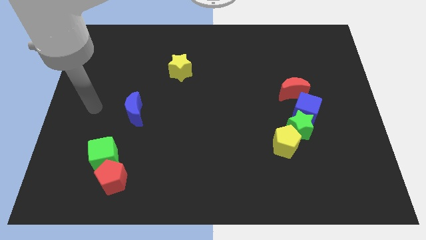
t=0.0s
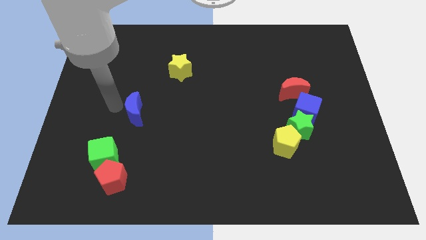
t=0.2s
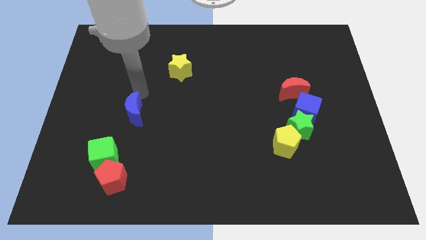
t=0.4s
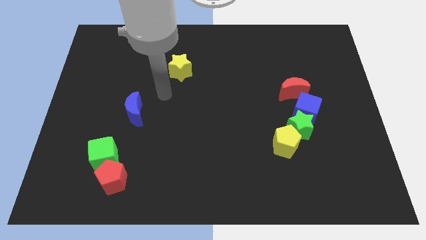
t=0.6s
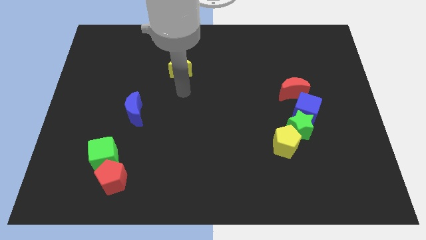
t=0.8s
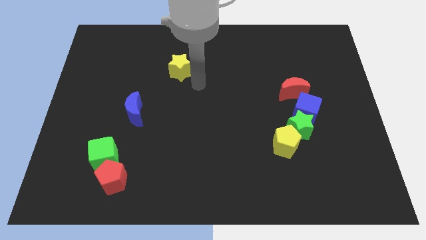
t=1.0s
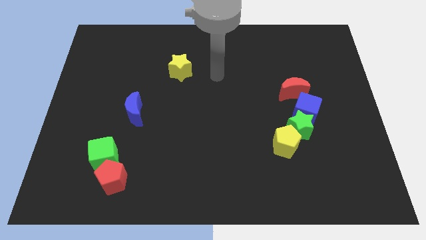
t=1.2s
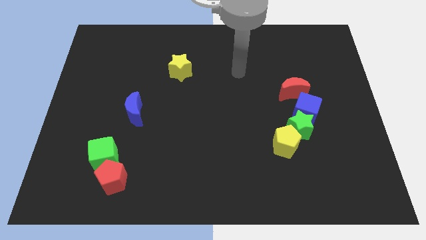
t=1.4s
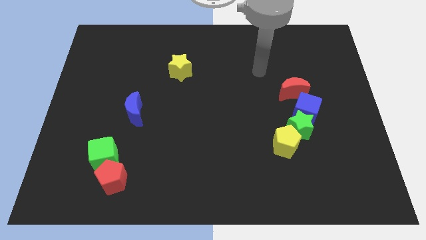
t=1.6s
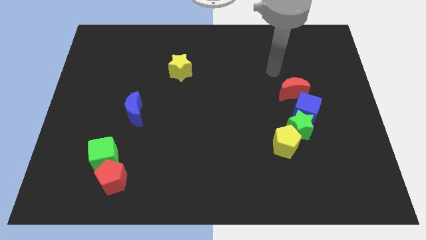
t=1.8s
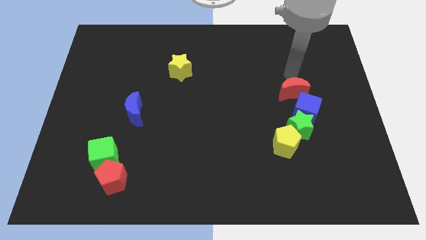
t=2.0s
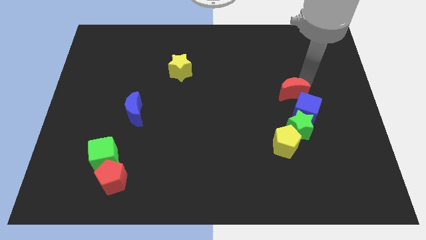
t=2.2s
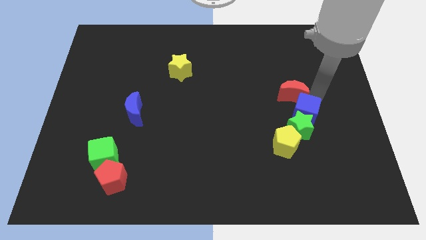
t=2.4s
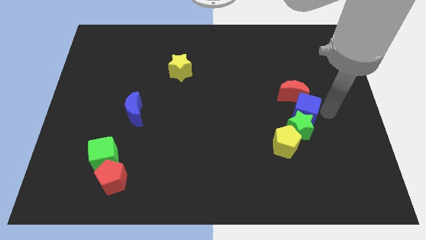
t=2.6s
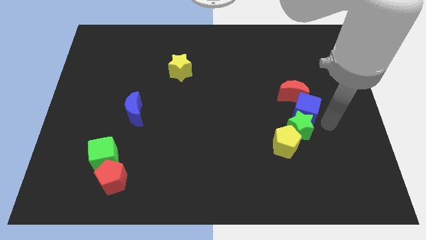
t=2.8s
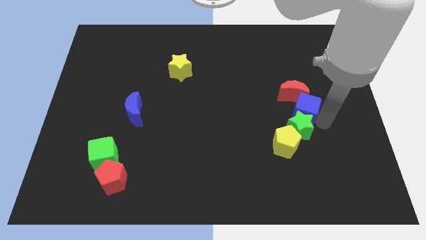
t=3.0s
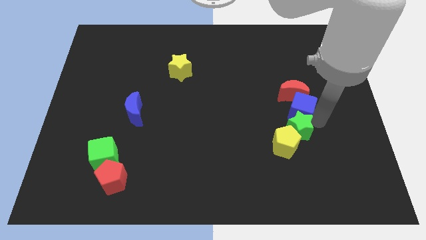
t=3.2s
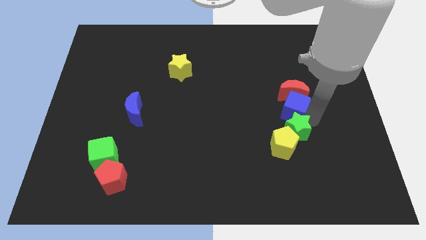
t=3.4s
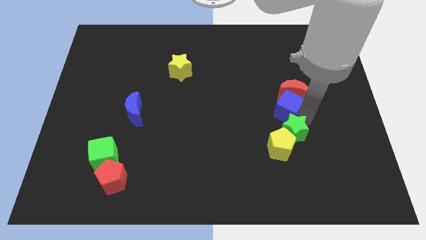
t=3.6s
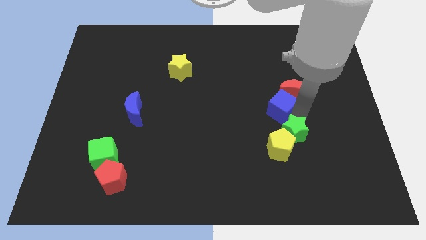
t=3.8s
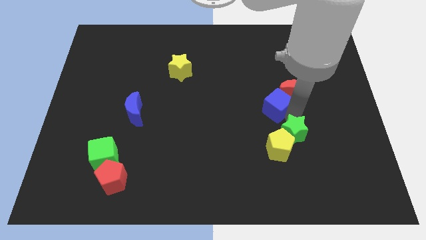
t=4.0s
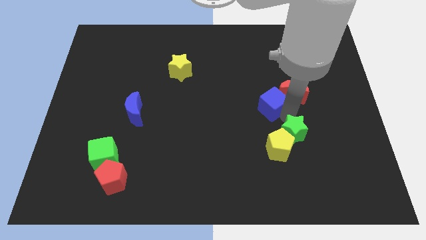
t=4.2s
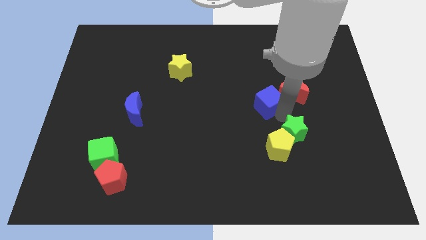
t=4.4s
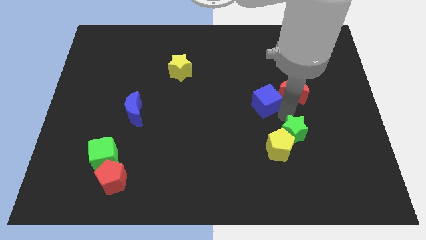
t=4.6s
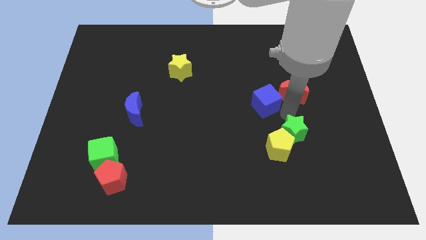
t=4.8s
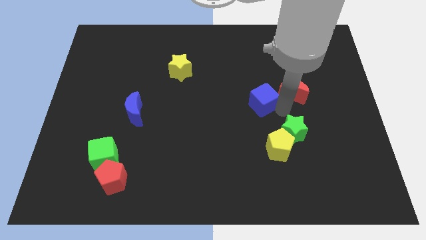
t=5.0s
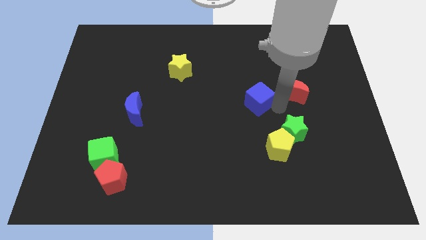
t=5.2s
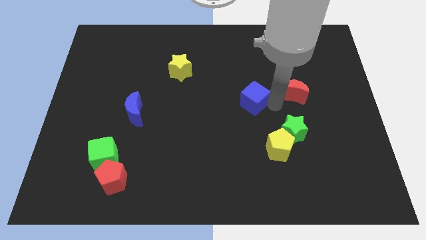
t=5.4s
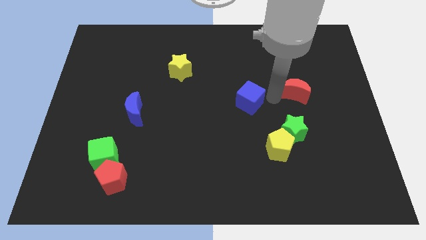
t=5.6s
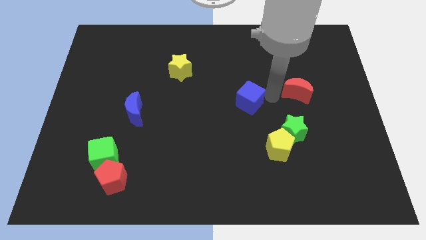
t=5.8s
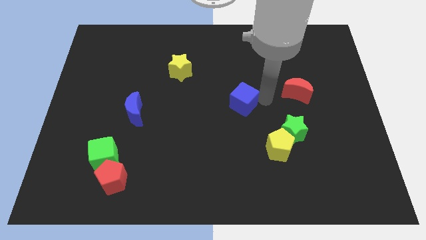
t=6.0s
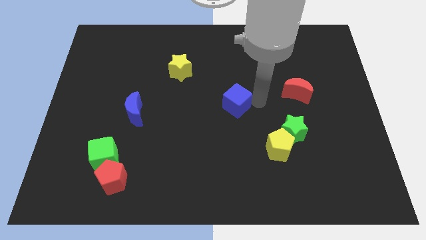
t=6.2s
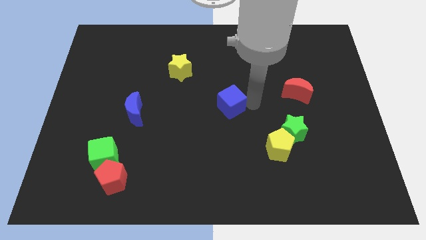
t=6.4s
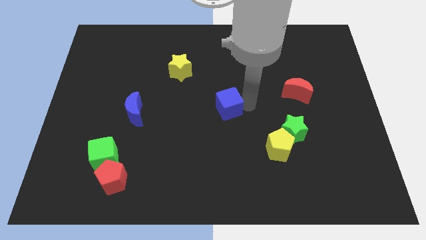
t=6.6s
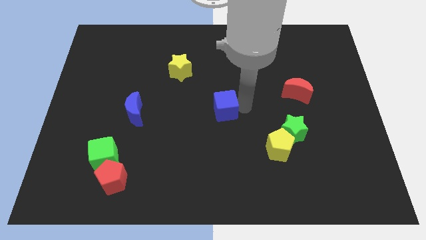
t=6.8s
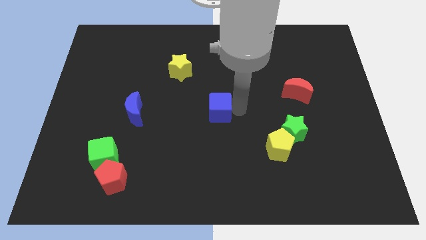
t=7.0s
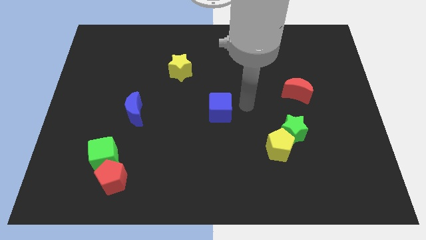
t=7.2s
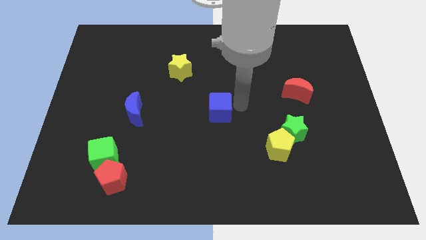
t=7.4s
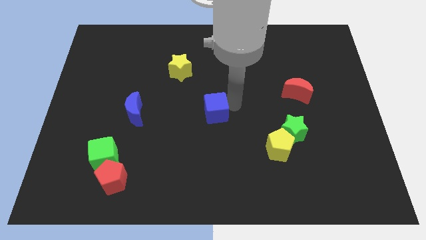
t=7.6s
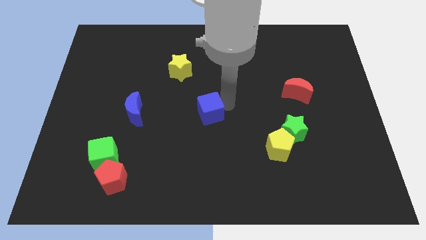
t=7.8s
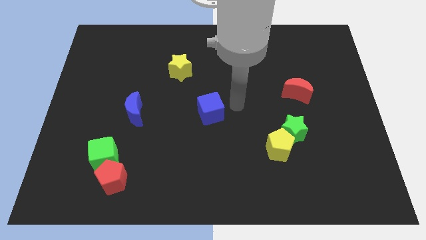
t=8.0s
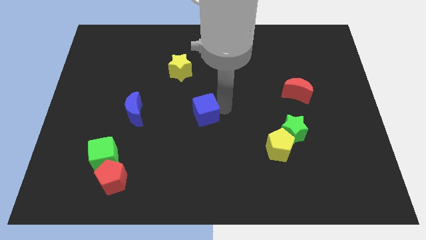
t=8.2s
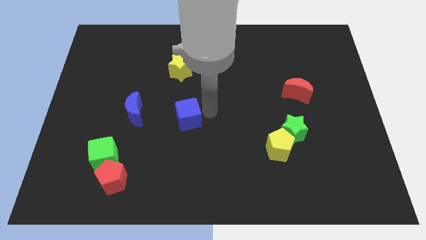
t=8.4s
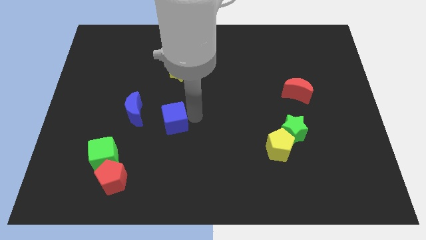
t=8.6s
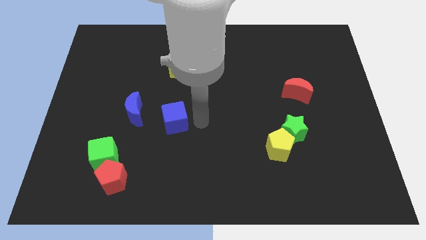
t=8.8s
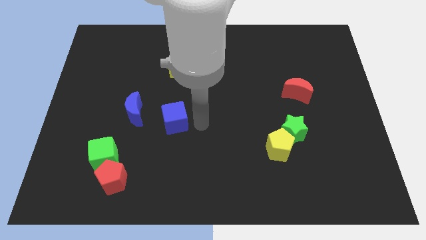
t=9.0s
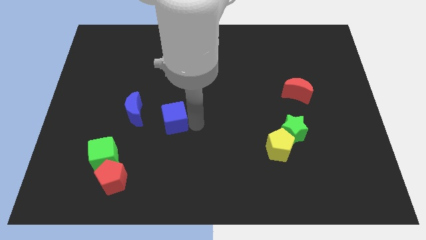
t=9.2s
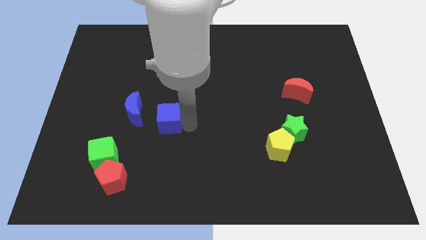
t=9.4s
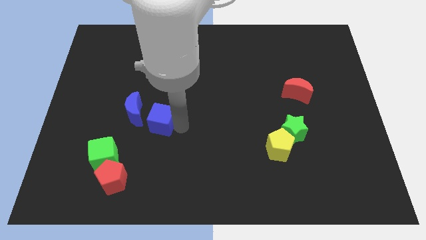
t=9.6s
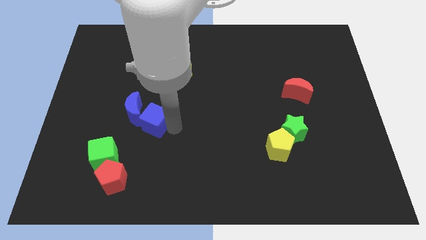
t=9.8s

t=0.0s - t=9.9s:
slide the blue cube next to the blue moon

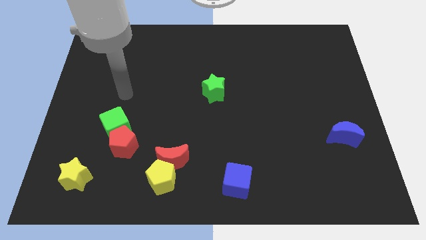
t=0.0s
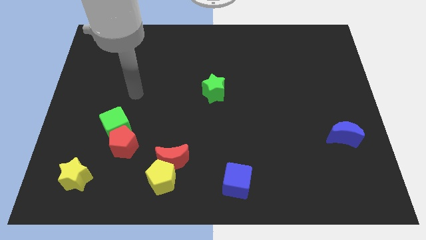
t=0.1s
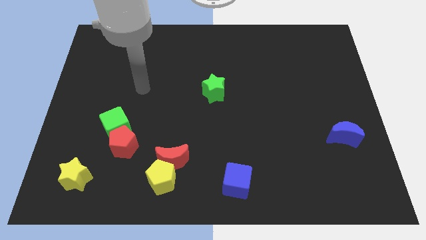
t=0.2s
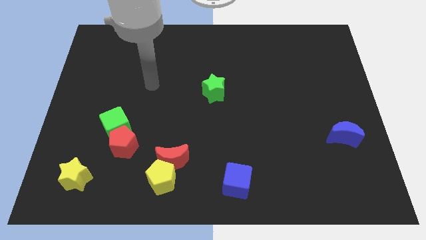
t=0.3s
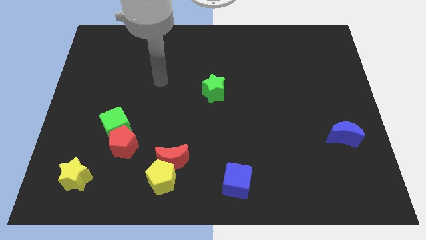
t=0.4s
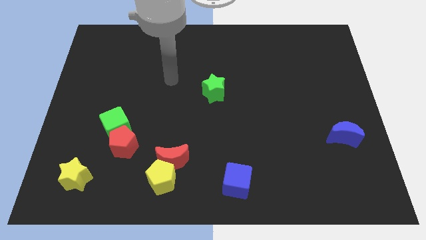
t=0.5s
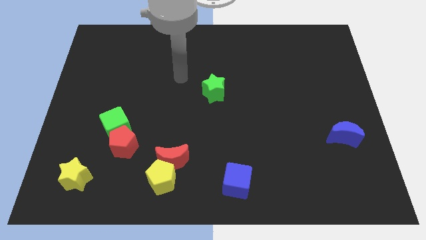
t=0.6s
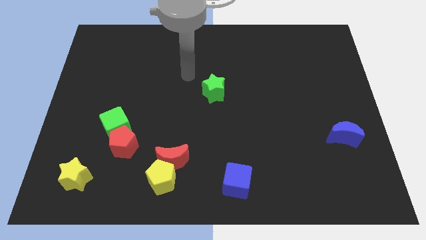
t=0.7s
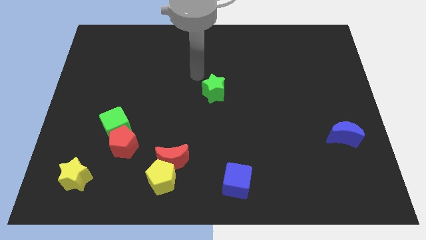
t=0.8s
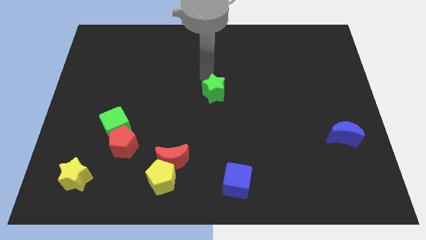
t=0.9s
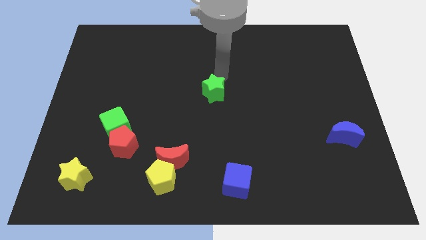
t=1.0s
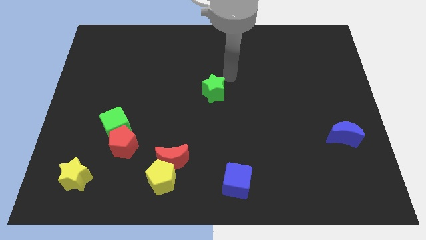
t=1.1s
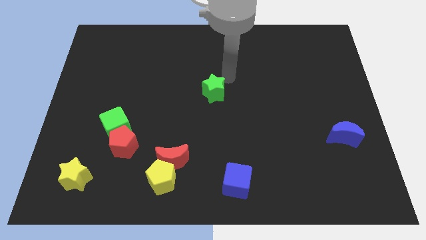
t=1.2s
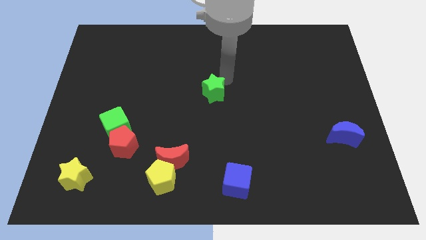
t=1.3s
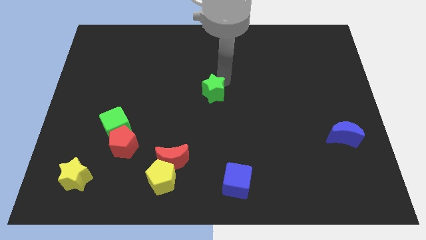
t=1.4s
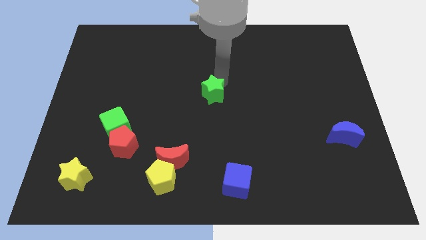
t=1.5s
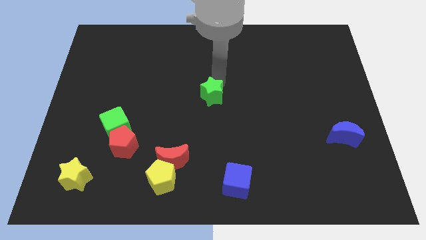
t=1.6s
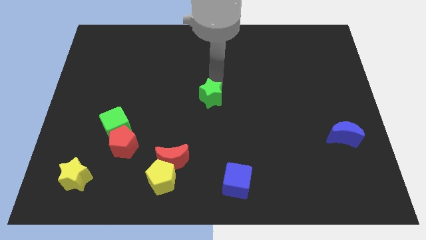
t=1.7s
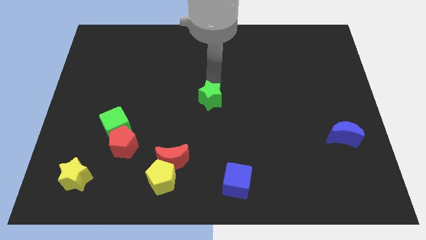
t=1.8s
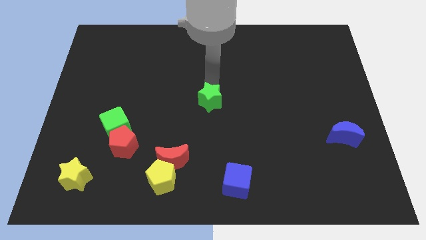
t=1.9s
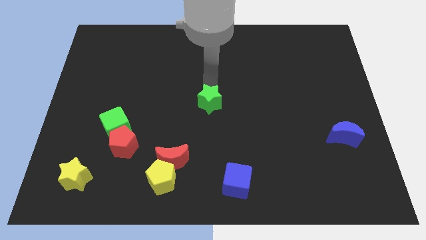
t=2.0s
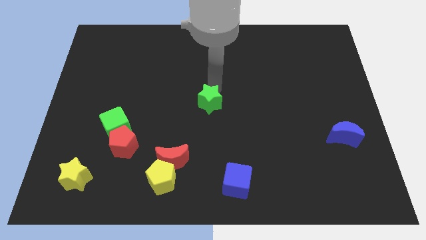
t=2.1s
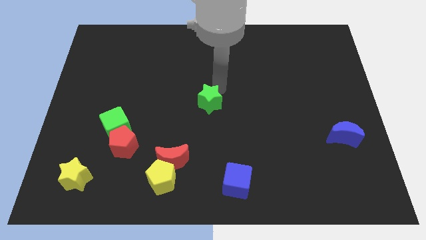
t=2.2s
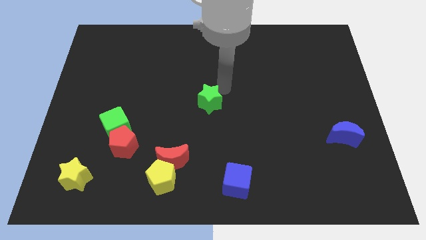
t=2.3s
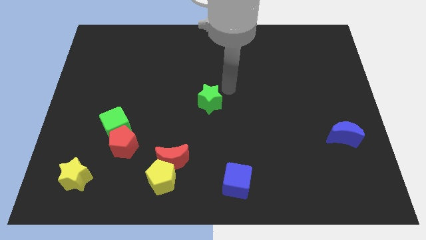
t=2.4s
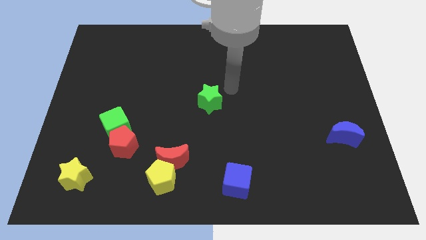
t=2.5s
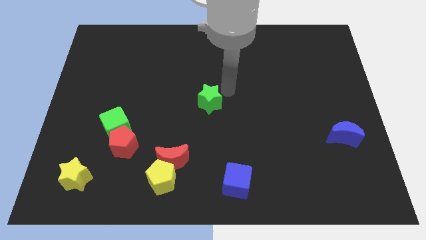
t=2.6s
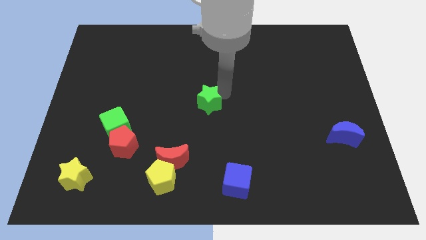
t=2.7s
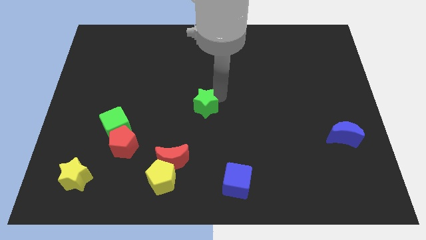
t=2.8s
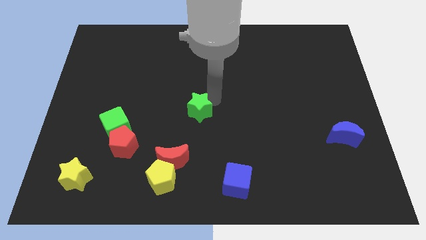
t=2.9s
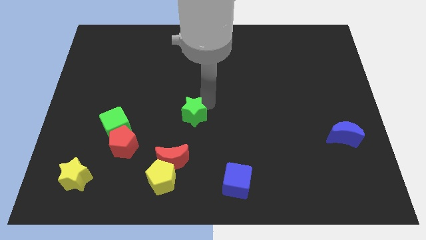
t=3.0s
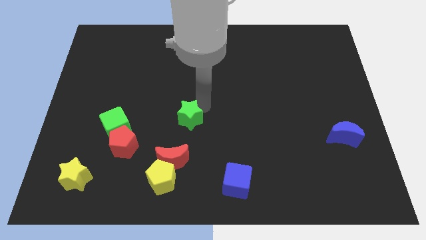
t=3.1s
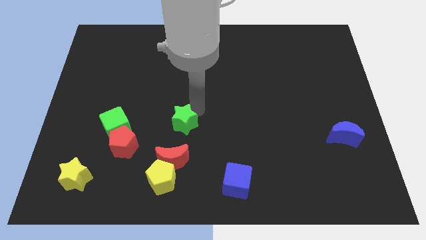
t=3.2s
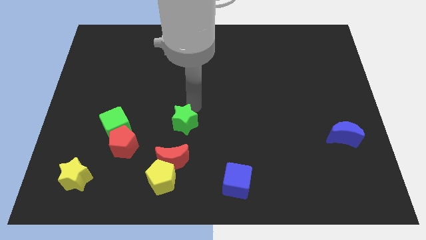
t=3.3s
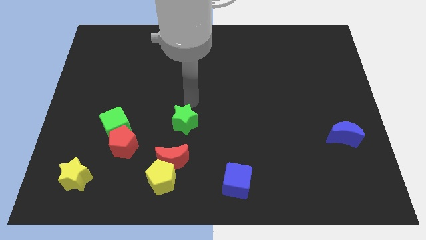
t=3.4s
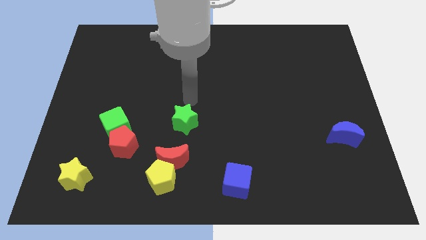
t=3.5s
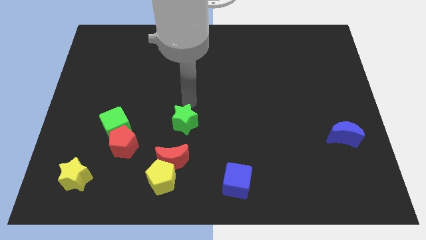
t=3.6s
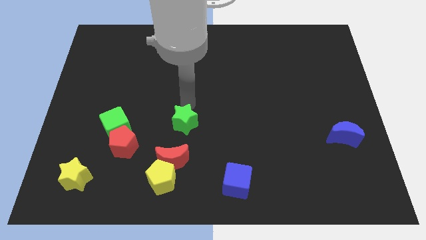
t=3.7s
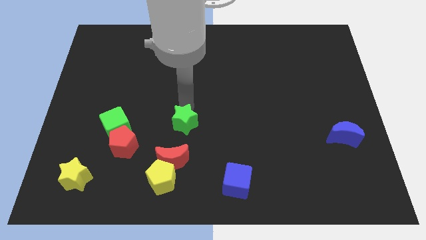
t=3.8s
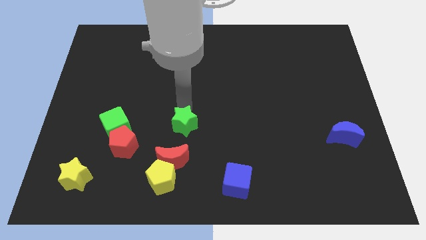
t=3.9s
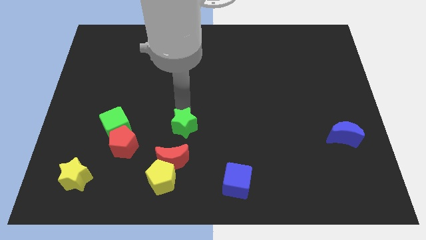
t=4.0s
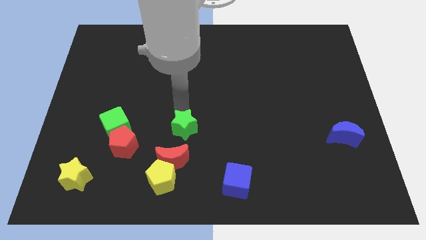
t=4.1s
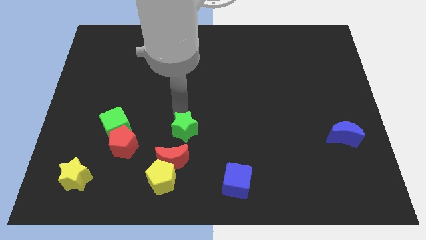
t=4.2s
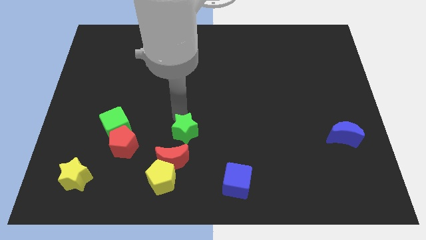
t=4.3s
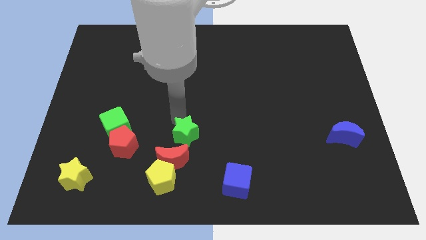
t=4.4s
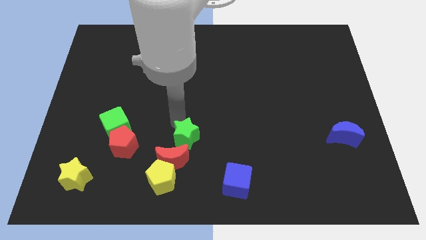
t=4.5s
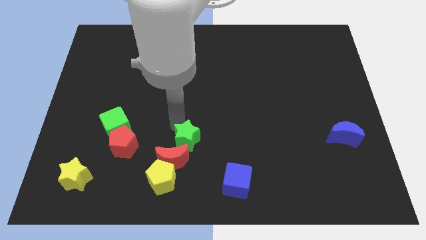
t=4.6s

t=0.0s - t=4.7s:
push the green star to the red moon
